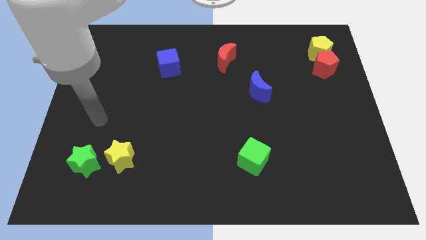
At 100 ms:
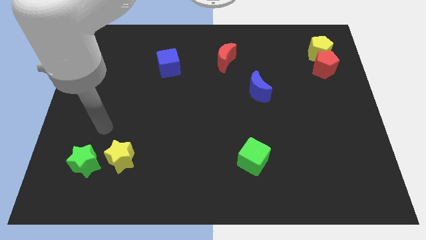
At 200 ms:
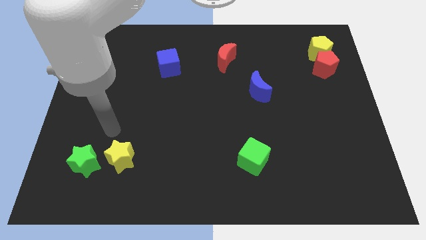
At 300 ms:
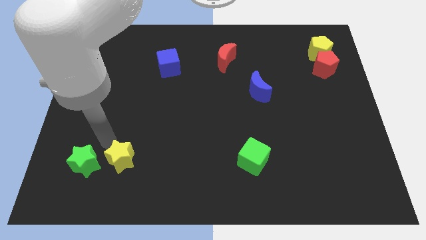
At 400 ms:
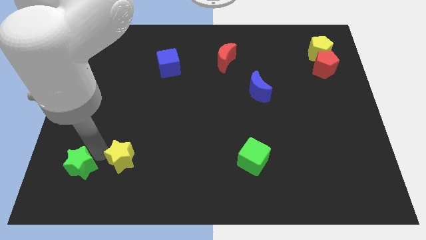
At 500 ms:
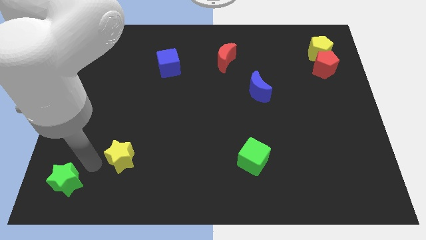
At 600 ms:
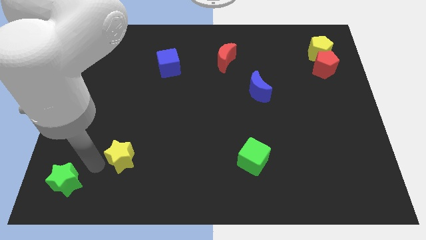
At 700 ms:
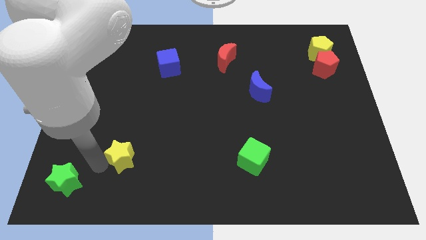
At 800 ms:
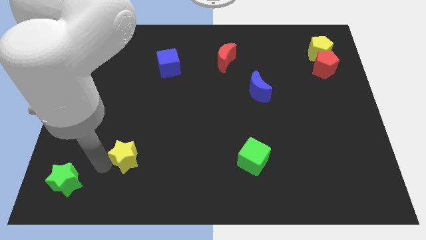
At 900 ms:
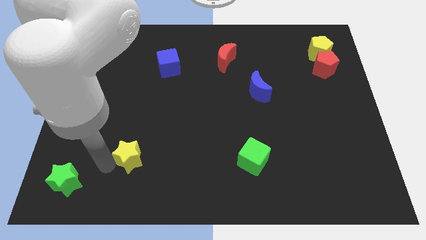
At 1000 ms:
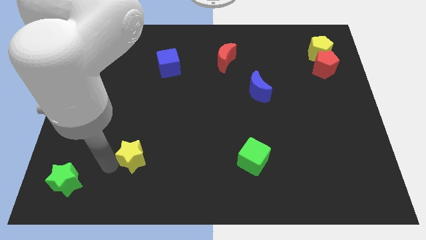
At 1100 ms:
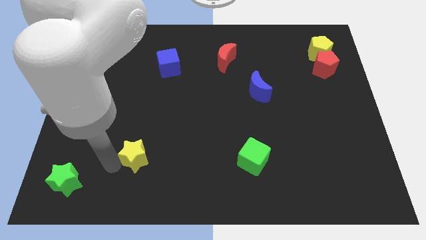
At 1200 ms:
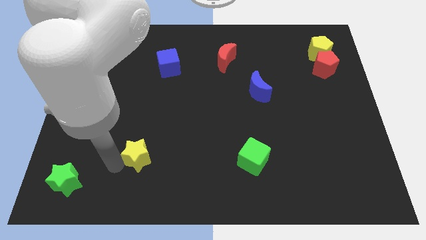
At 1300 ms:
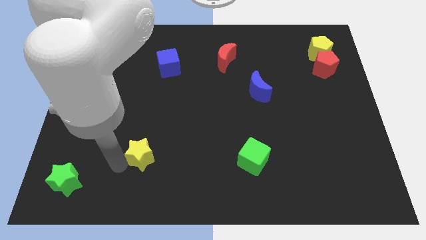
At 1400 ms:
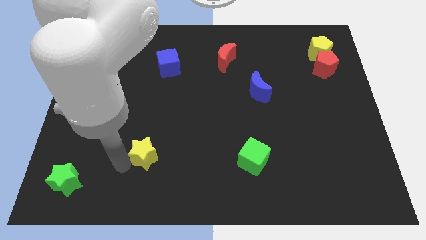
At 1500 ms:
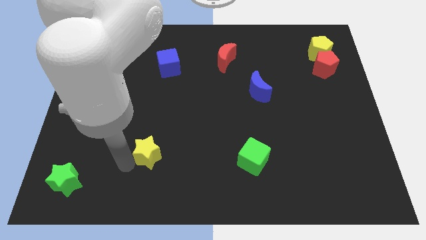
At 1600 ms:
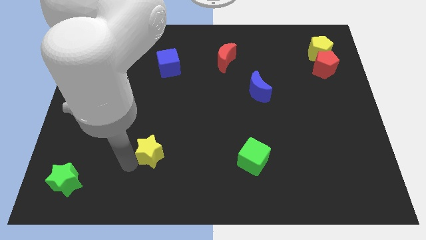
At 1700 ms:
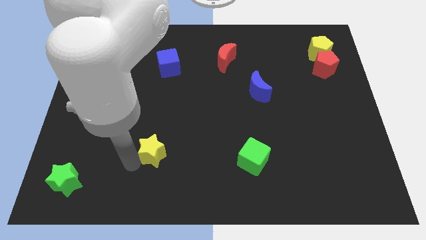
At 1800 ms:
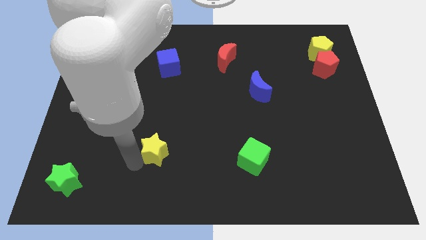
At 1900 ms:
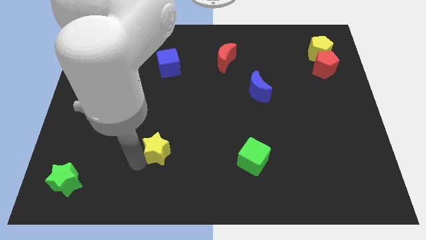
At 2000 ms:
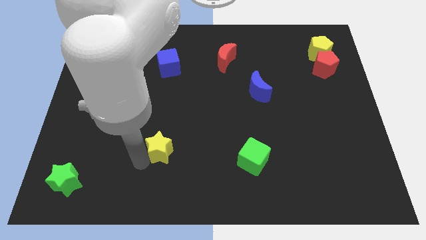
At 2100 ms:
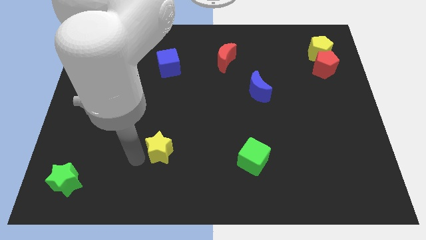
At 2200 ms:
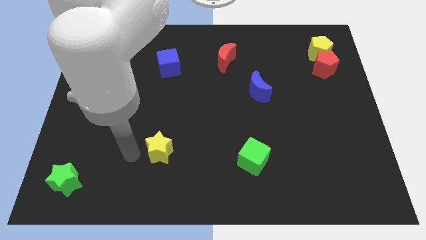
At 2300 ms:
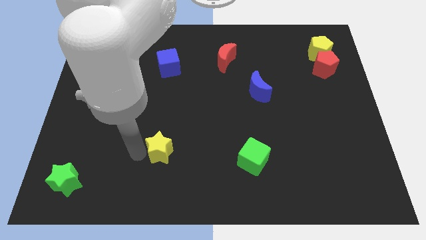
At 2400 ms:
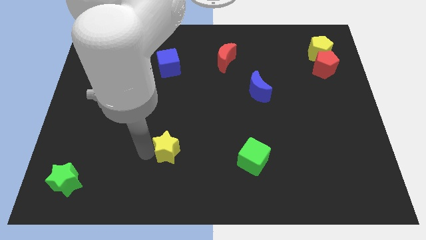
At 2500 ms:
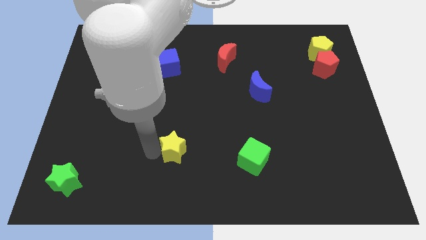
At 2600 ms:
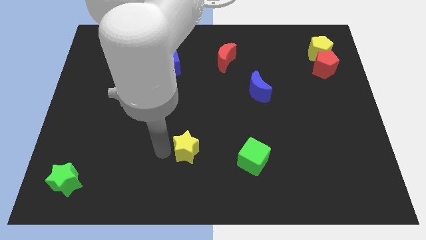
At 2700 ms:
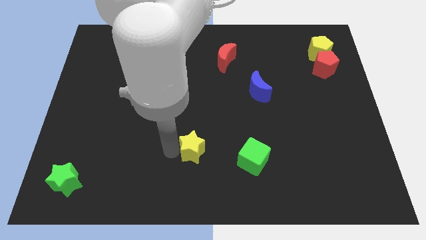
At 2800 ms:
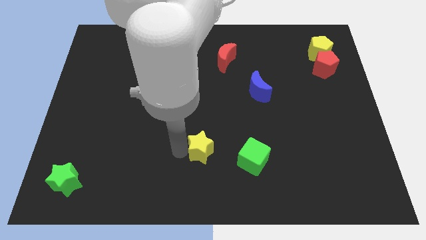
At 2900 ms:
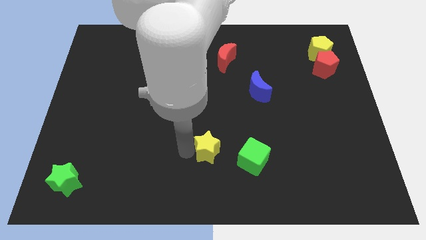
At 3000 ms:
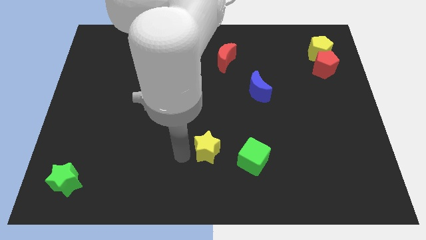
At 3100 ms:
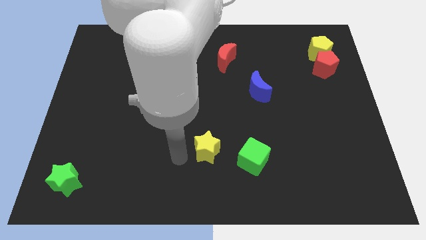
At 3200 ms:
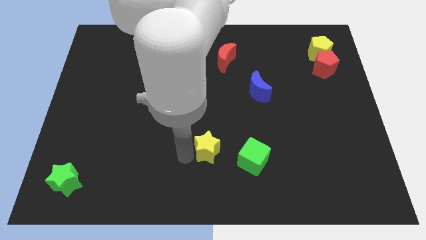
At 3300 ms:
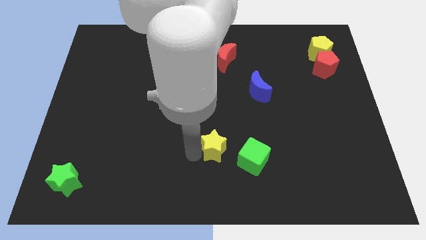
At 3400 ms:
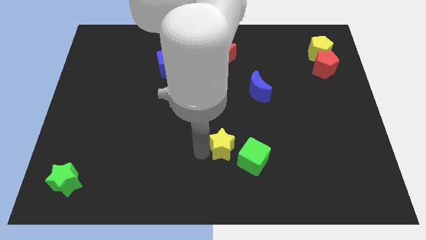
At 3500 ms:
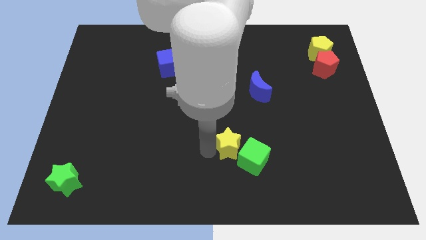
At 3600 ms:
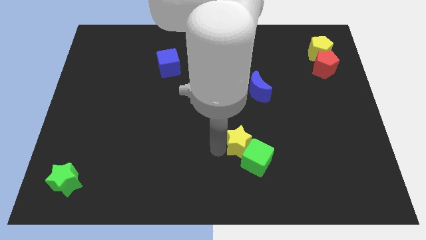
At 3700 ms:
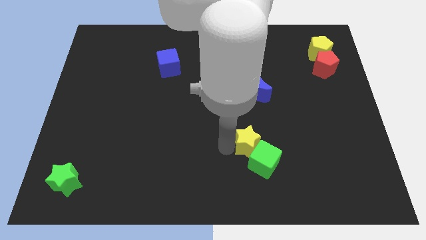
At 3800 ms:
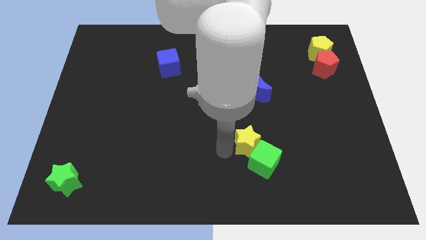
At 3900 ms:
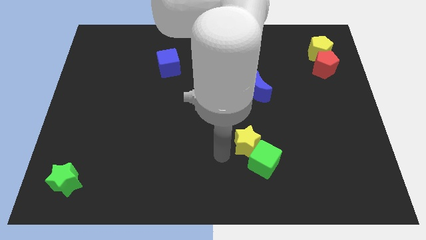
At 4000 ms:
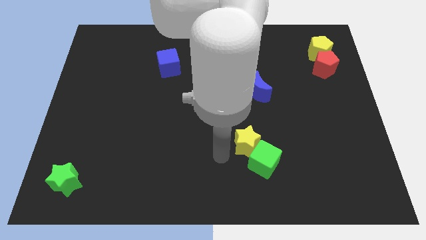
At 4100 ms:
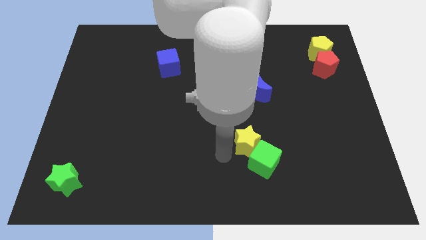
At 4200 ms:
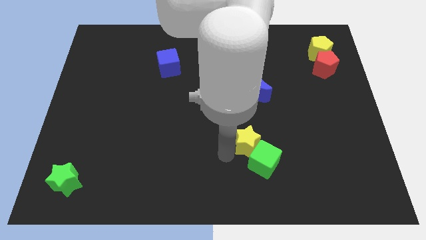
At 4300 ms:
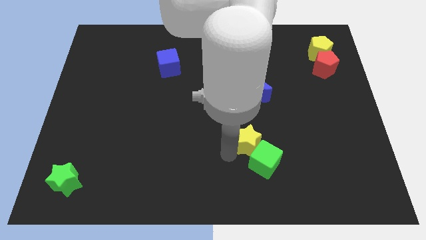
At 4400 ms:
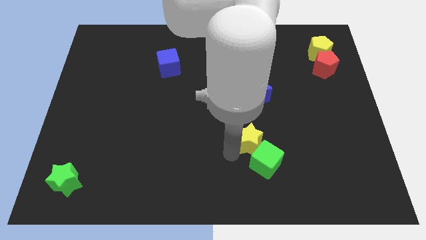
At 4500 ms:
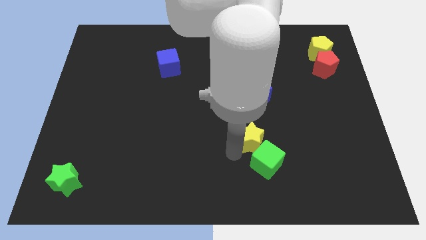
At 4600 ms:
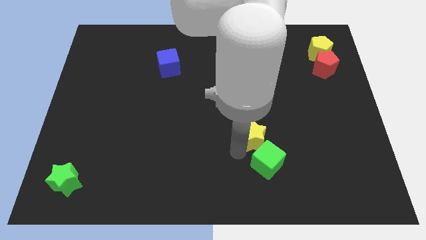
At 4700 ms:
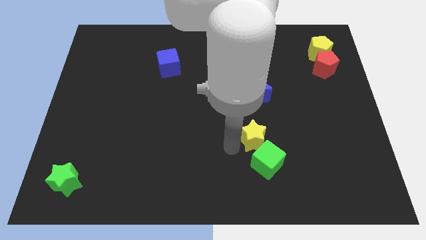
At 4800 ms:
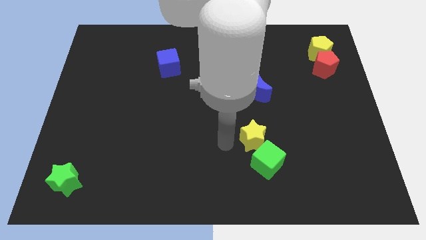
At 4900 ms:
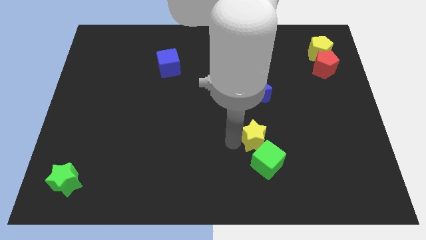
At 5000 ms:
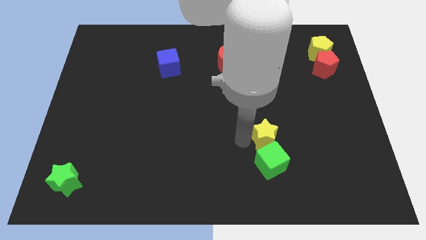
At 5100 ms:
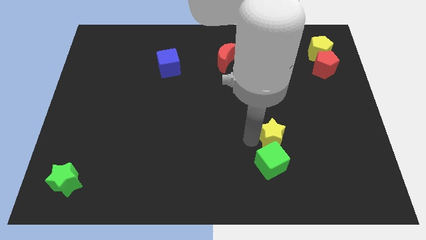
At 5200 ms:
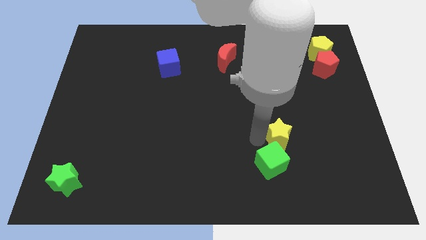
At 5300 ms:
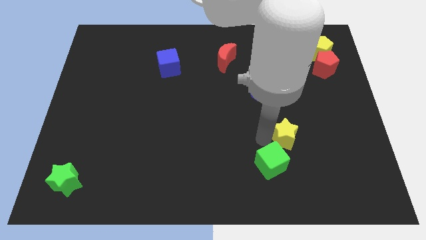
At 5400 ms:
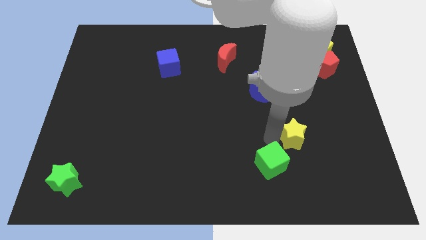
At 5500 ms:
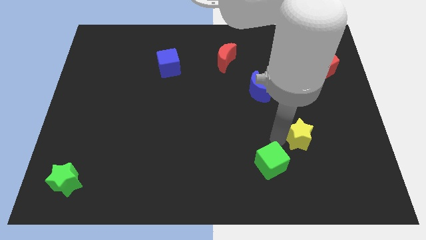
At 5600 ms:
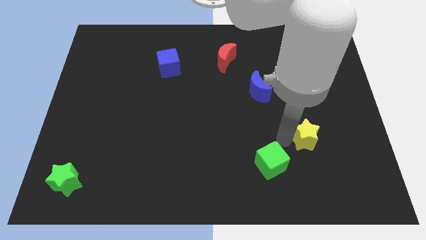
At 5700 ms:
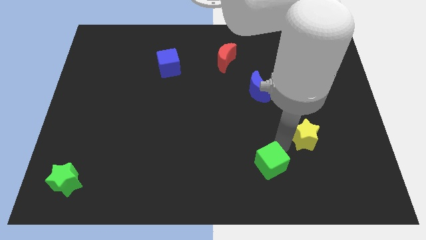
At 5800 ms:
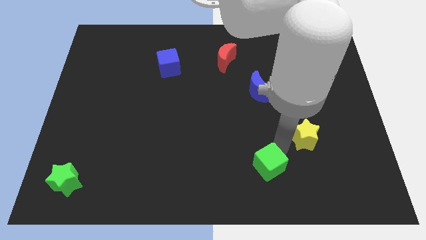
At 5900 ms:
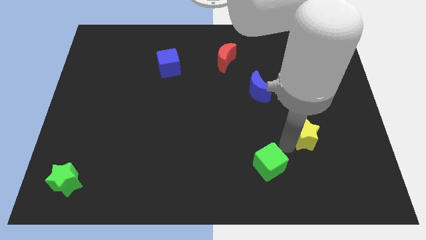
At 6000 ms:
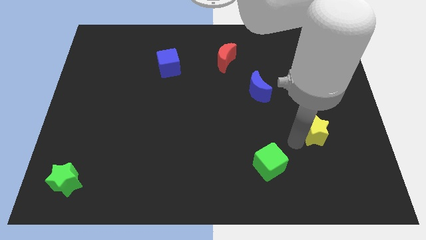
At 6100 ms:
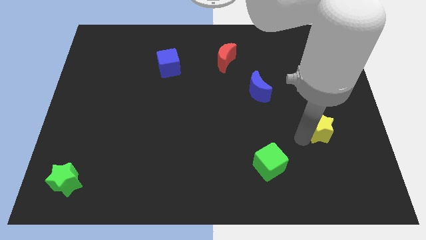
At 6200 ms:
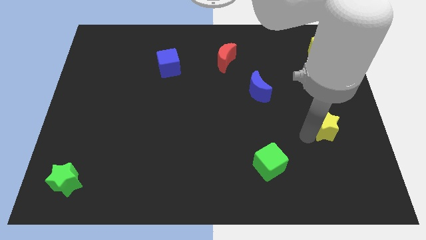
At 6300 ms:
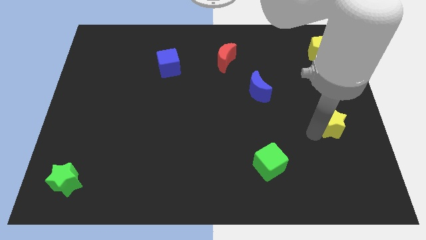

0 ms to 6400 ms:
move the yellow star to the center right
